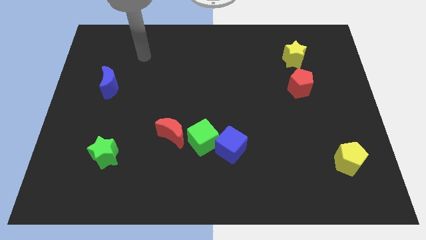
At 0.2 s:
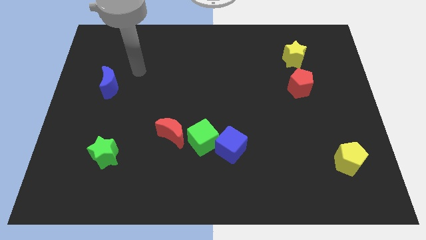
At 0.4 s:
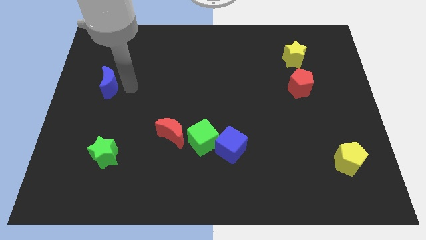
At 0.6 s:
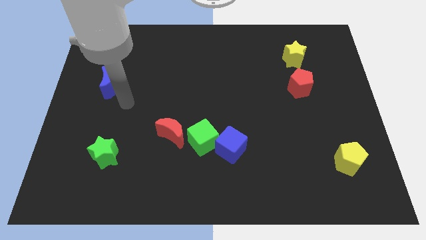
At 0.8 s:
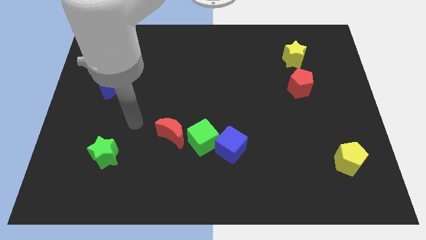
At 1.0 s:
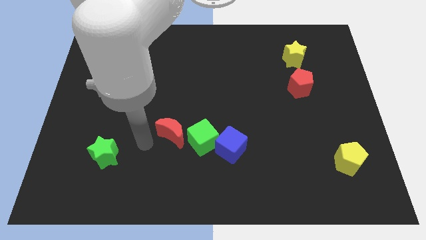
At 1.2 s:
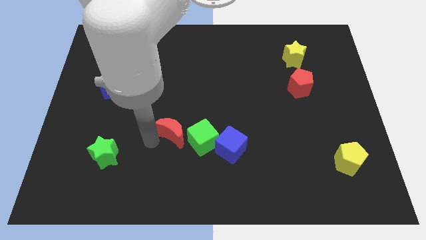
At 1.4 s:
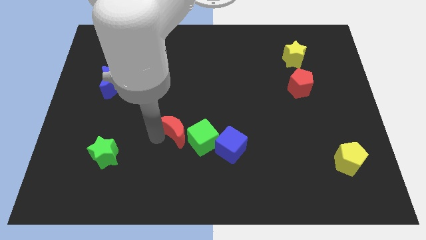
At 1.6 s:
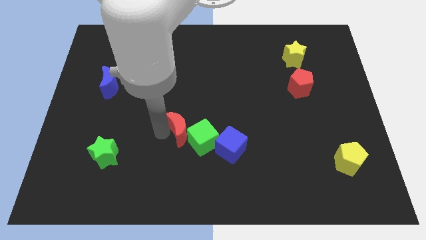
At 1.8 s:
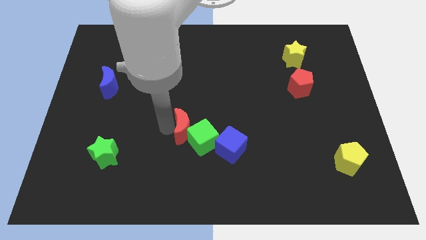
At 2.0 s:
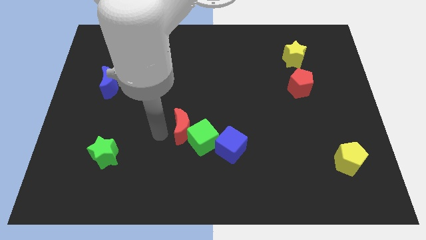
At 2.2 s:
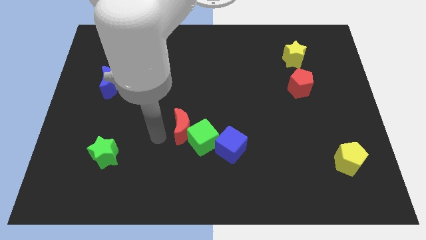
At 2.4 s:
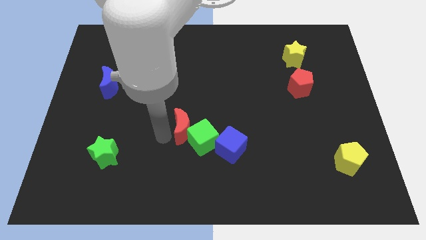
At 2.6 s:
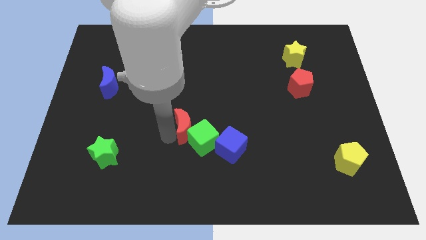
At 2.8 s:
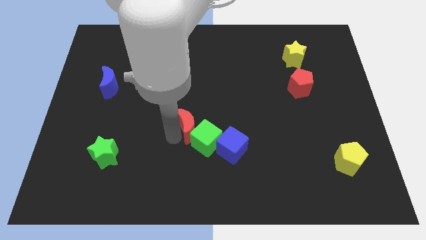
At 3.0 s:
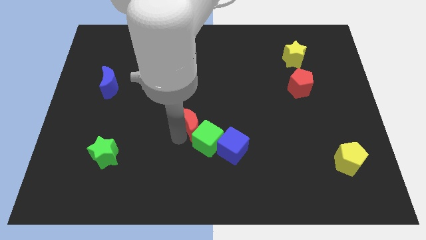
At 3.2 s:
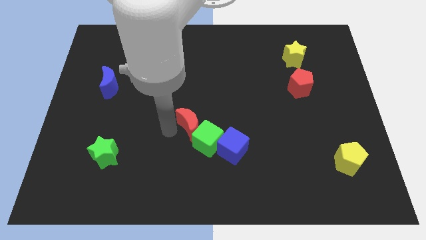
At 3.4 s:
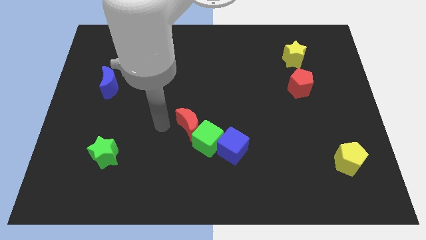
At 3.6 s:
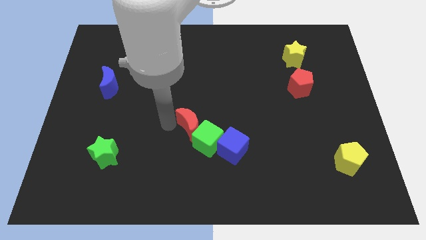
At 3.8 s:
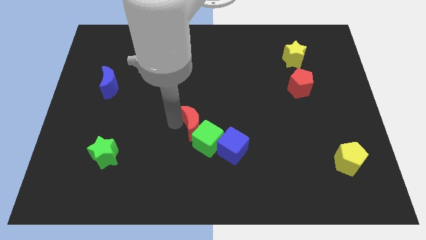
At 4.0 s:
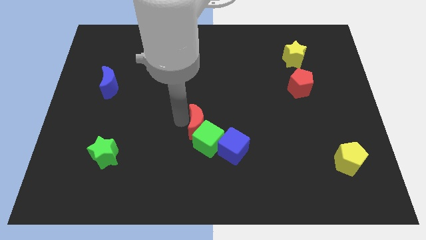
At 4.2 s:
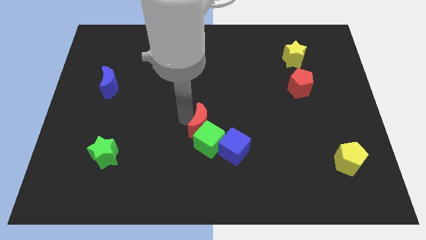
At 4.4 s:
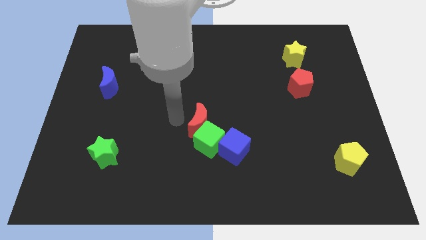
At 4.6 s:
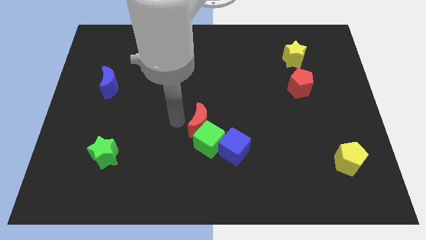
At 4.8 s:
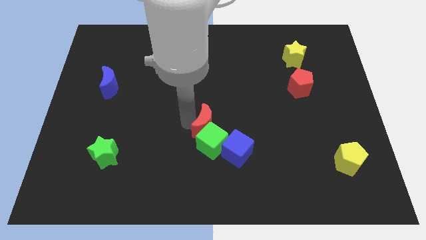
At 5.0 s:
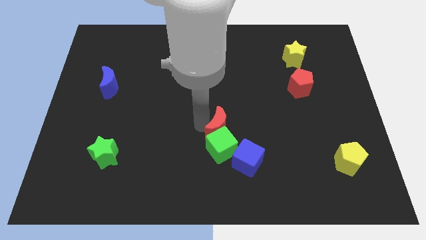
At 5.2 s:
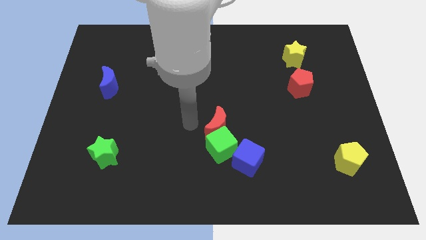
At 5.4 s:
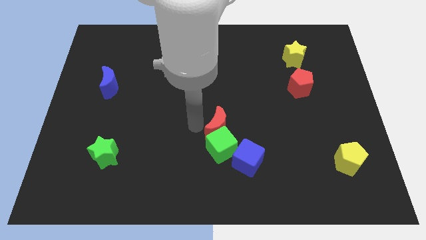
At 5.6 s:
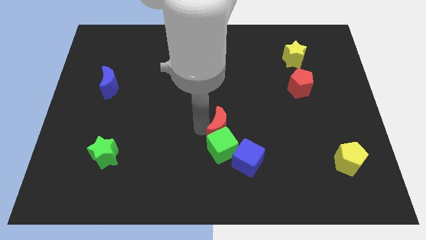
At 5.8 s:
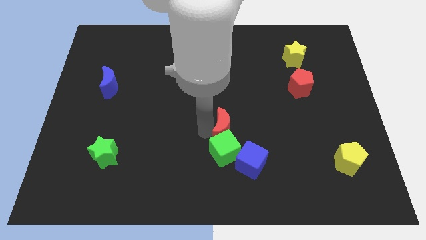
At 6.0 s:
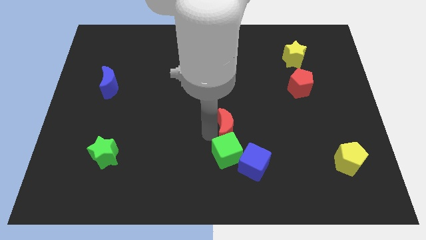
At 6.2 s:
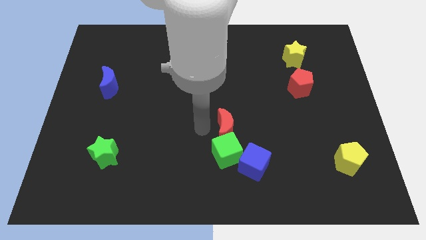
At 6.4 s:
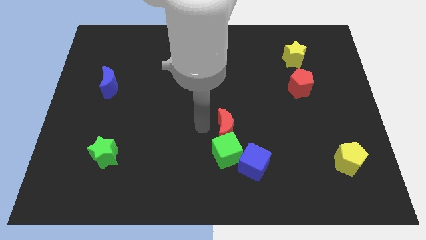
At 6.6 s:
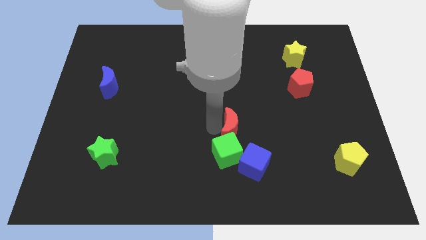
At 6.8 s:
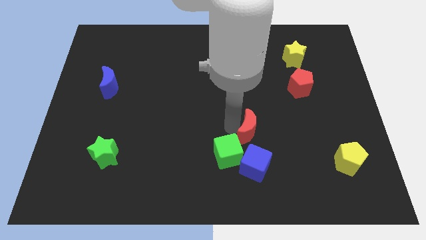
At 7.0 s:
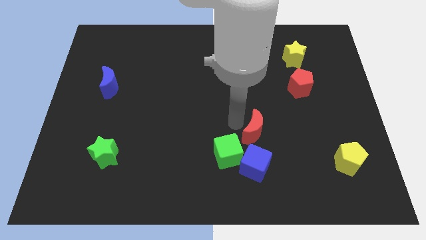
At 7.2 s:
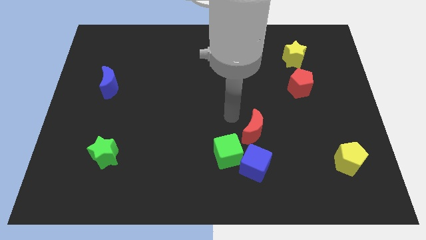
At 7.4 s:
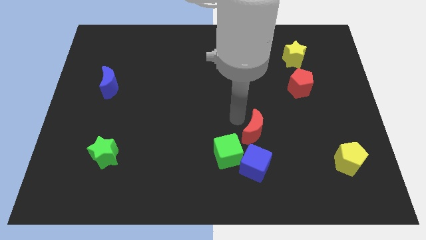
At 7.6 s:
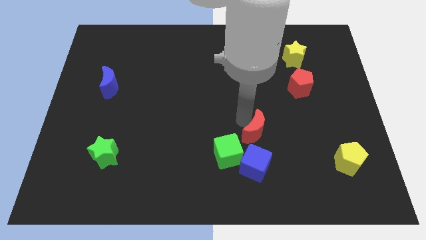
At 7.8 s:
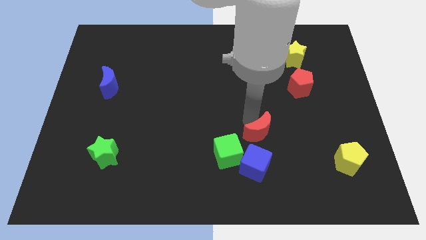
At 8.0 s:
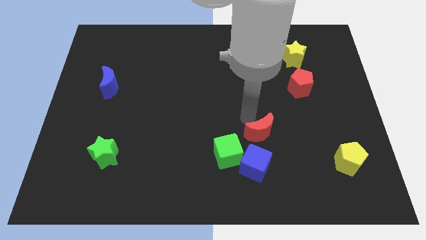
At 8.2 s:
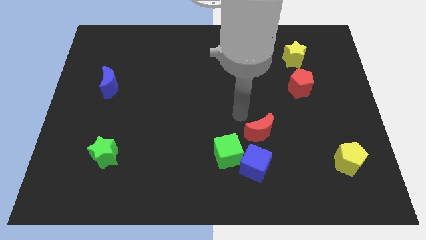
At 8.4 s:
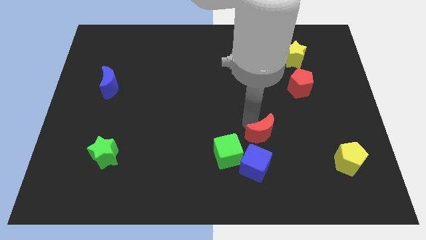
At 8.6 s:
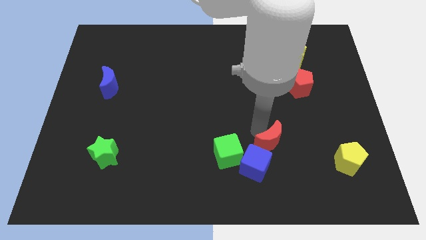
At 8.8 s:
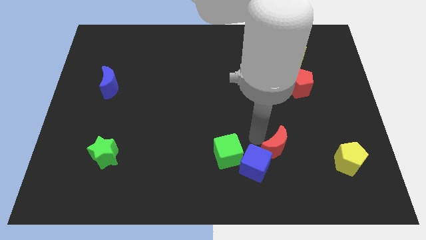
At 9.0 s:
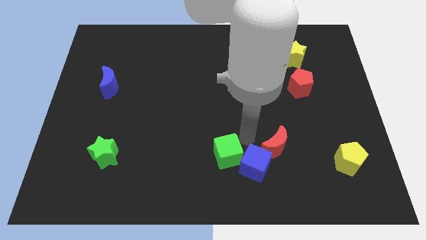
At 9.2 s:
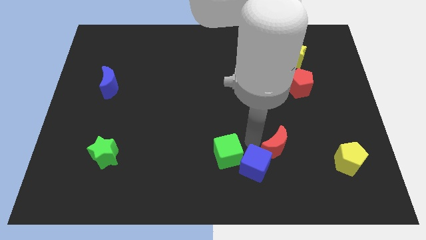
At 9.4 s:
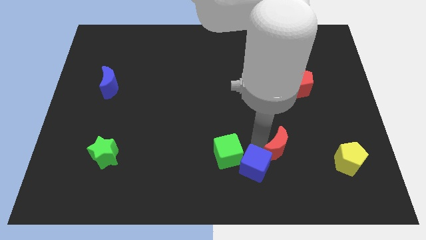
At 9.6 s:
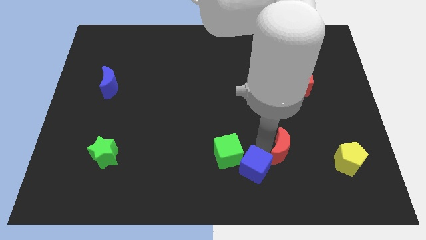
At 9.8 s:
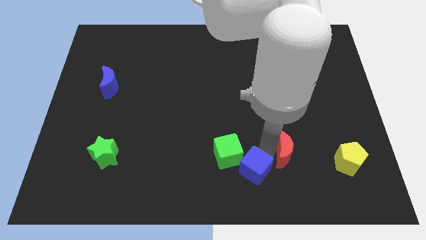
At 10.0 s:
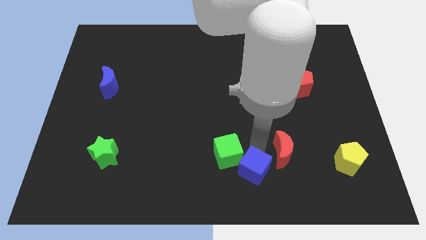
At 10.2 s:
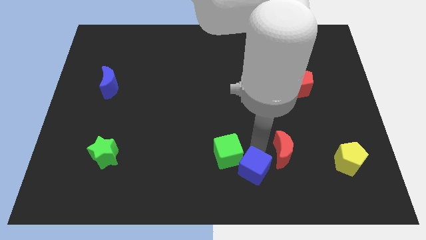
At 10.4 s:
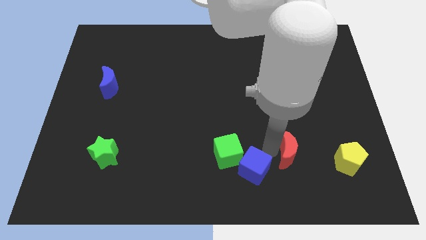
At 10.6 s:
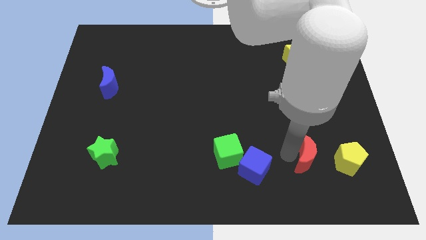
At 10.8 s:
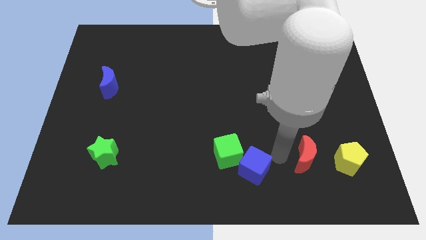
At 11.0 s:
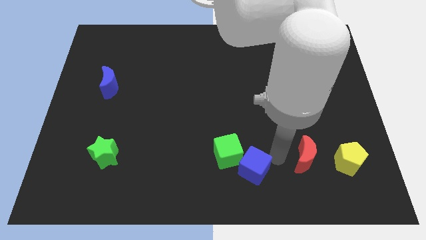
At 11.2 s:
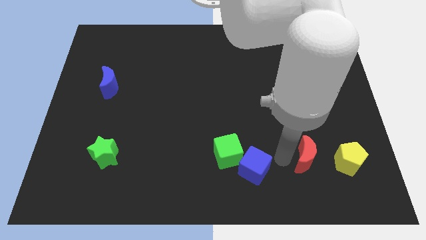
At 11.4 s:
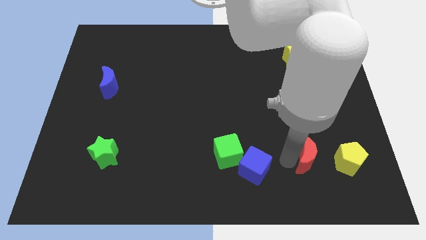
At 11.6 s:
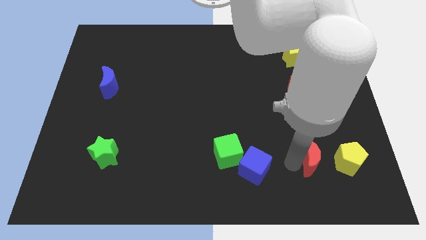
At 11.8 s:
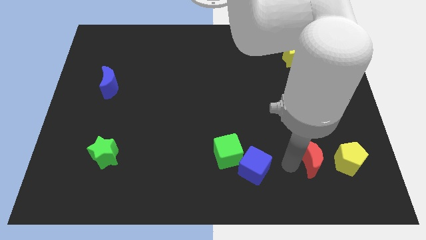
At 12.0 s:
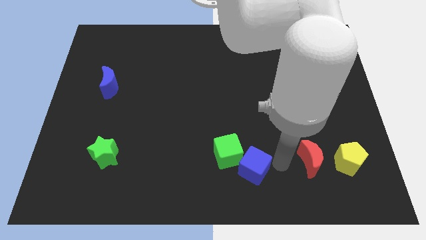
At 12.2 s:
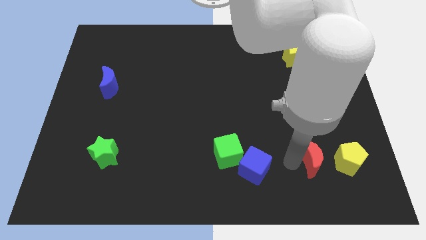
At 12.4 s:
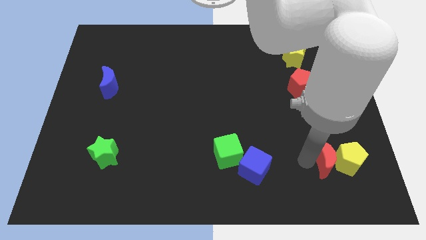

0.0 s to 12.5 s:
move the red moon towards the yellow pentagon

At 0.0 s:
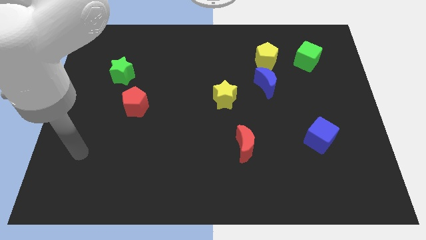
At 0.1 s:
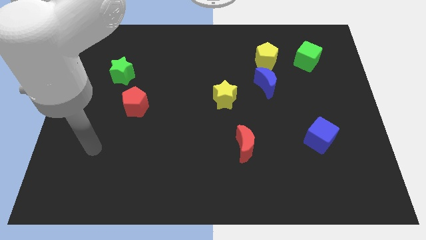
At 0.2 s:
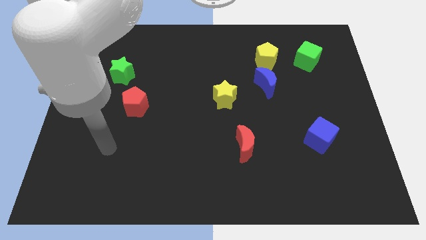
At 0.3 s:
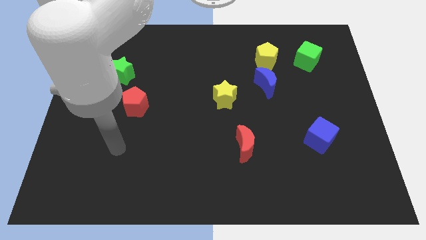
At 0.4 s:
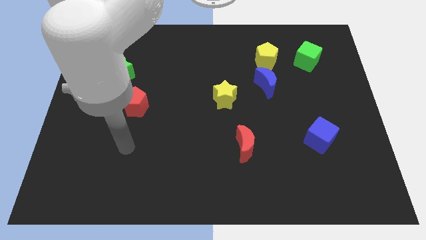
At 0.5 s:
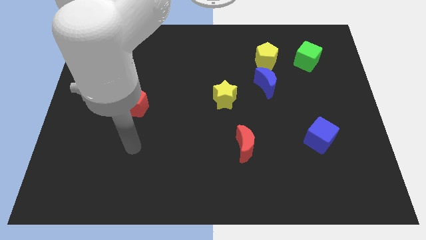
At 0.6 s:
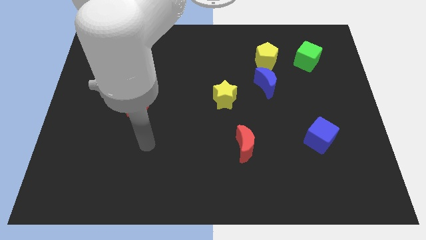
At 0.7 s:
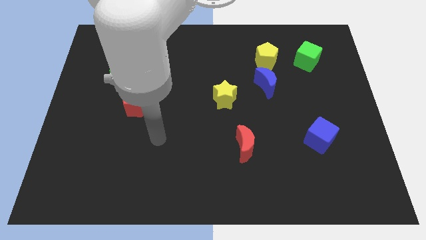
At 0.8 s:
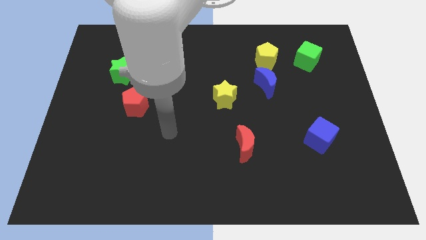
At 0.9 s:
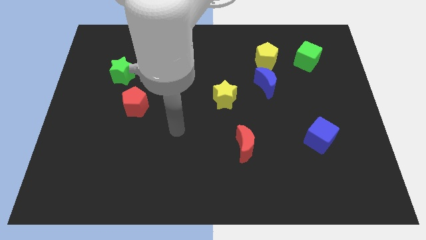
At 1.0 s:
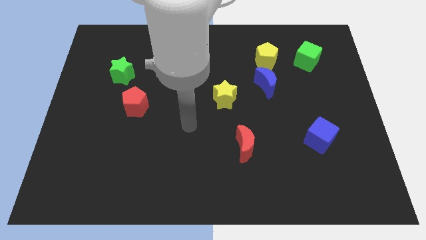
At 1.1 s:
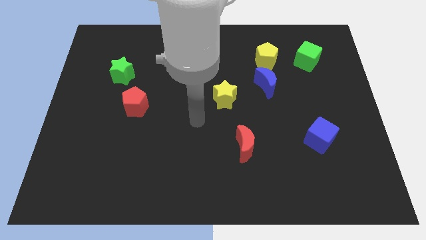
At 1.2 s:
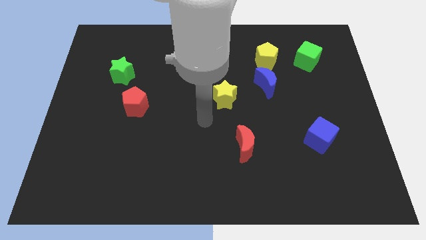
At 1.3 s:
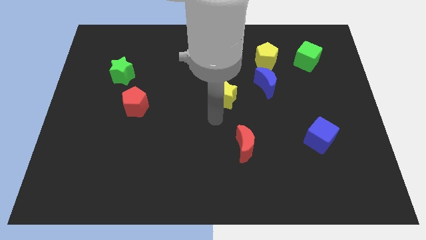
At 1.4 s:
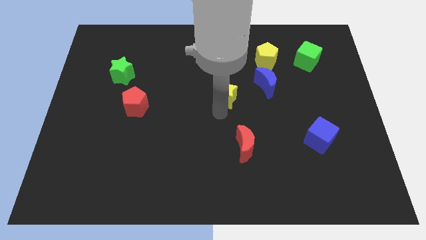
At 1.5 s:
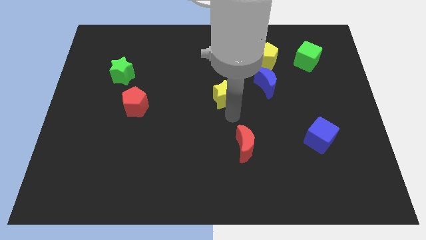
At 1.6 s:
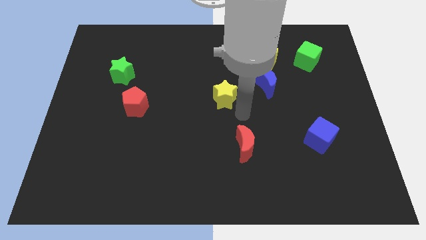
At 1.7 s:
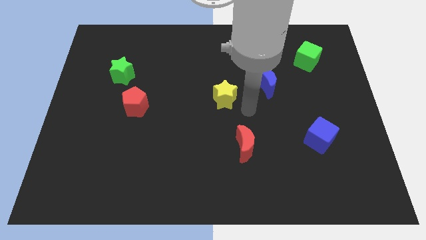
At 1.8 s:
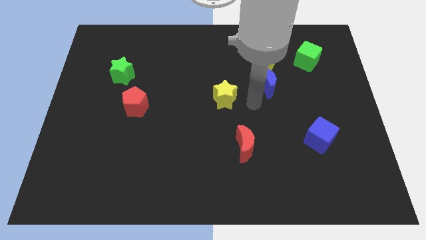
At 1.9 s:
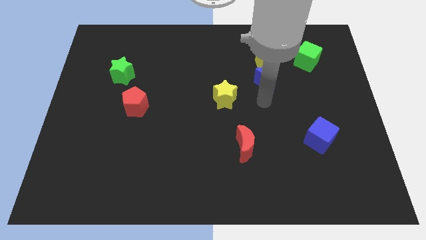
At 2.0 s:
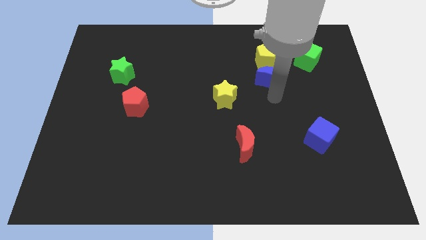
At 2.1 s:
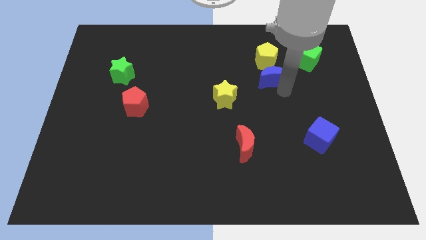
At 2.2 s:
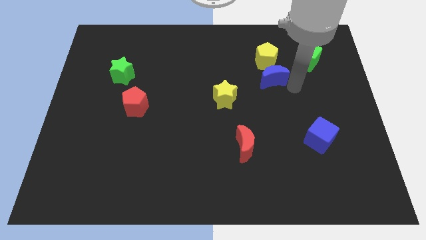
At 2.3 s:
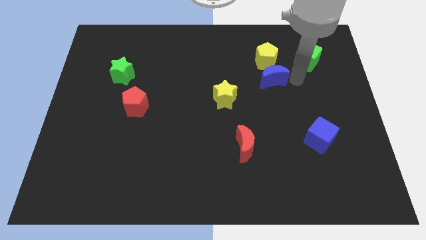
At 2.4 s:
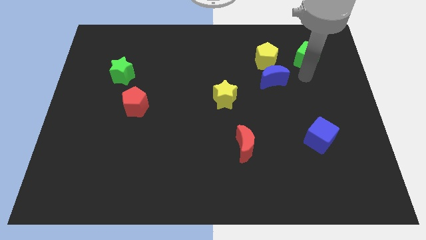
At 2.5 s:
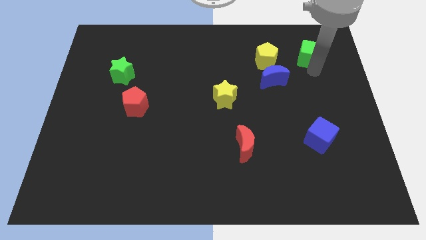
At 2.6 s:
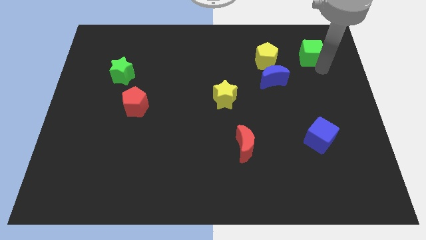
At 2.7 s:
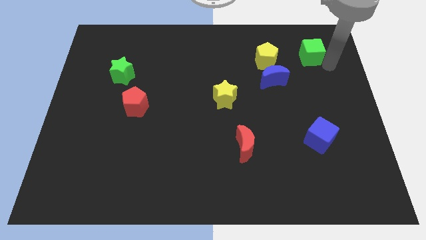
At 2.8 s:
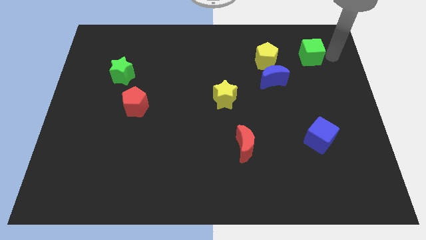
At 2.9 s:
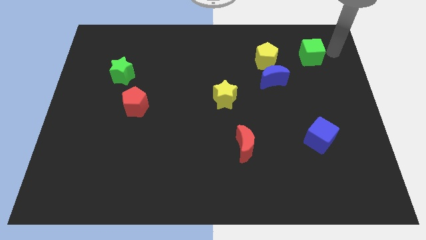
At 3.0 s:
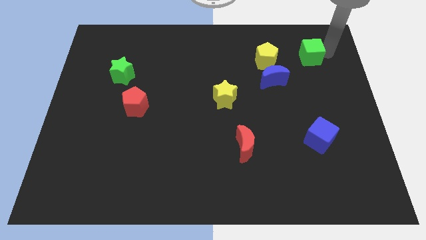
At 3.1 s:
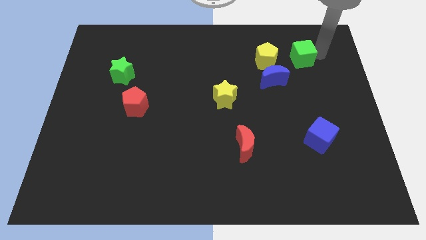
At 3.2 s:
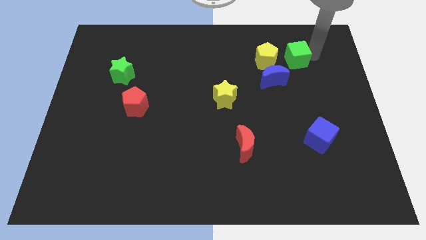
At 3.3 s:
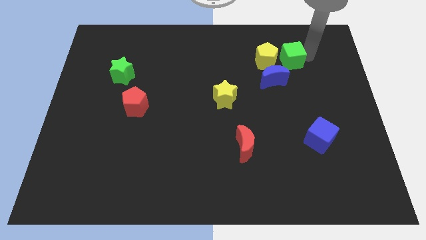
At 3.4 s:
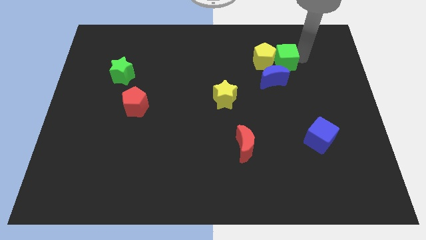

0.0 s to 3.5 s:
slide the green cube towards the yellow pentagon
